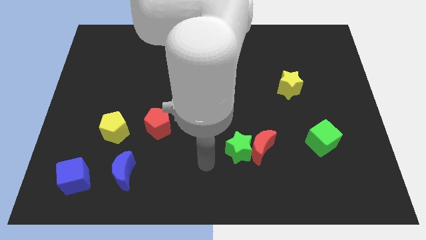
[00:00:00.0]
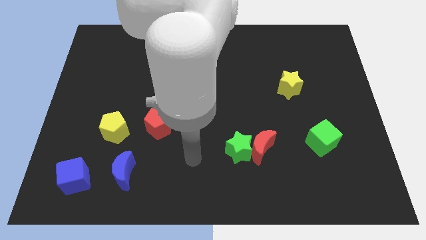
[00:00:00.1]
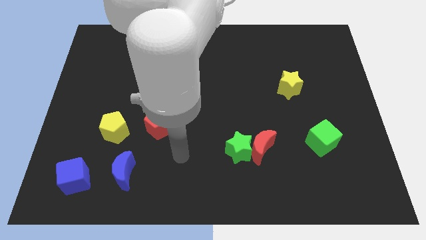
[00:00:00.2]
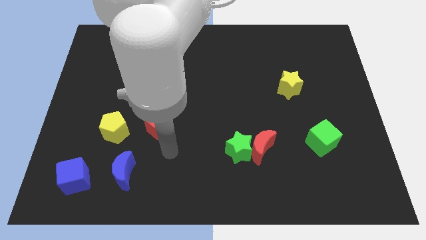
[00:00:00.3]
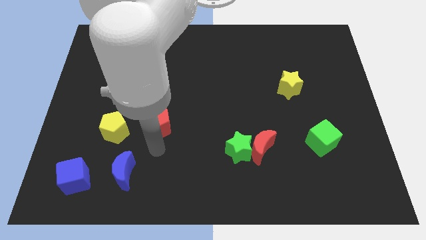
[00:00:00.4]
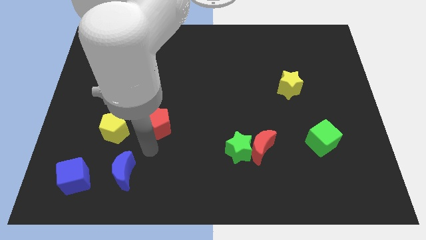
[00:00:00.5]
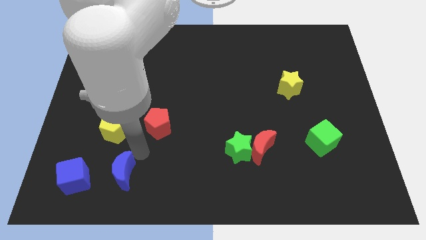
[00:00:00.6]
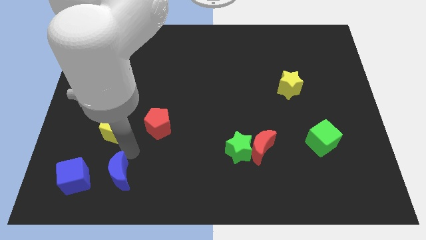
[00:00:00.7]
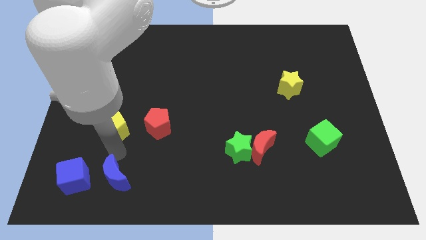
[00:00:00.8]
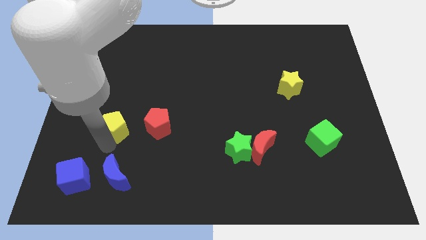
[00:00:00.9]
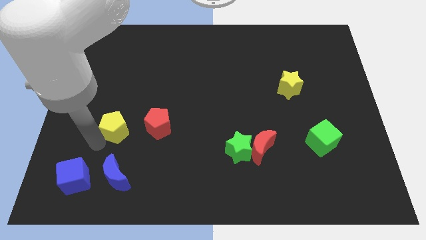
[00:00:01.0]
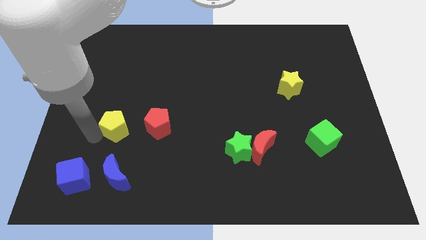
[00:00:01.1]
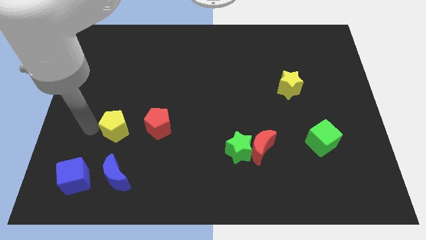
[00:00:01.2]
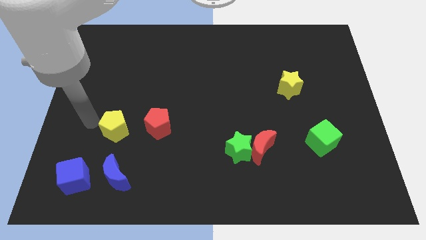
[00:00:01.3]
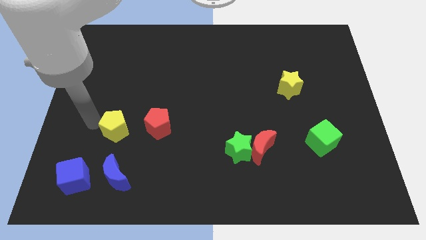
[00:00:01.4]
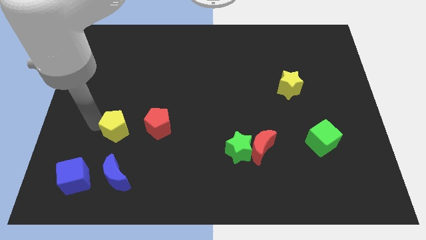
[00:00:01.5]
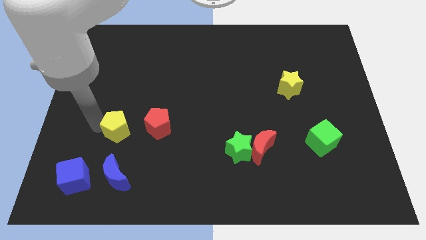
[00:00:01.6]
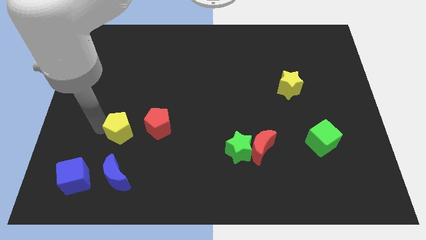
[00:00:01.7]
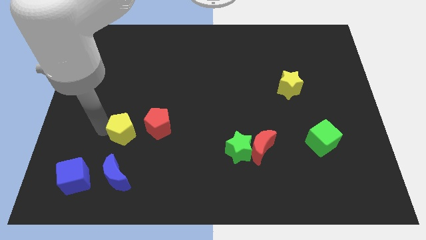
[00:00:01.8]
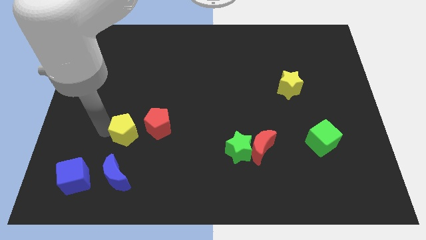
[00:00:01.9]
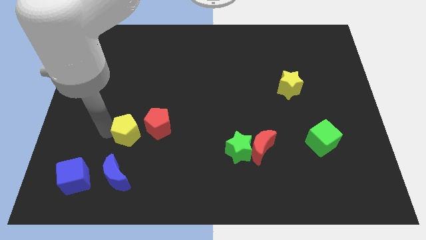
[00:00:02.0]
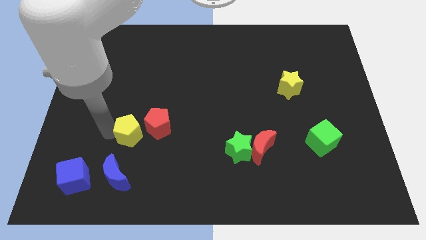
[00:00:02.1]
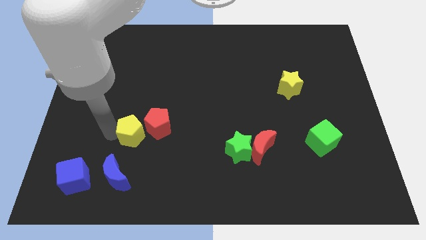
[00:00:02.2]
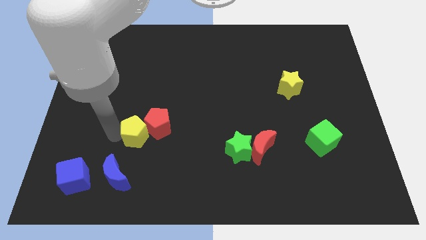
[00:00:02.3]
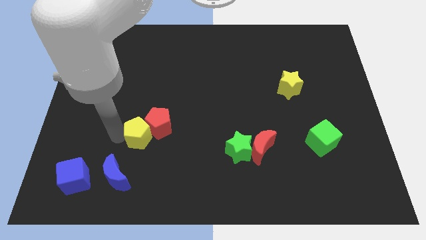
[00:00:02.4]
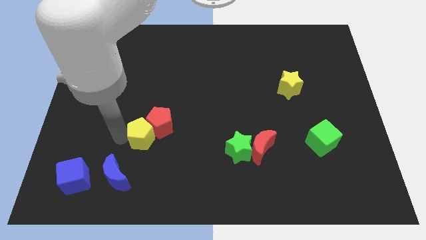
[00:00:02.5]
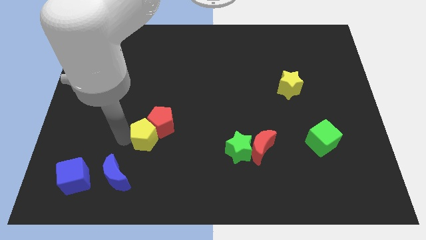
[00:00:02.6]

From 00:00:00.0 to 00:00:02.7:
slide the yellow pentagon slightly right

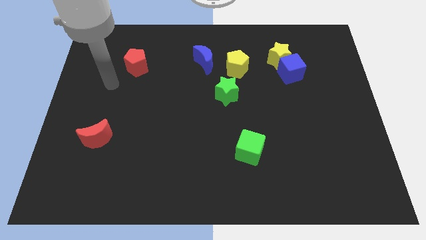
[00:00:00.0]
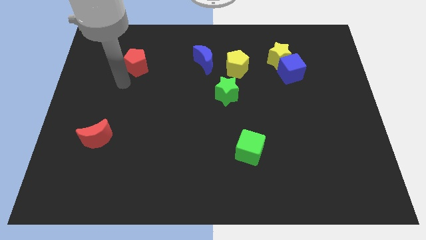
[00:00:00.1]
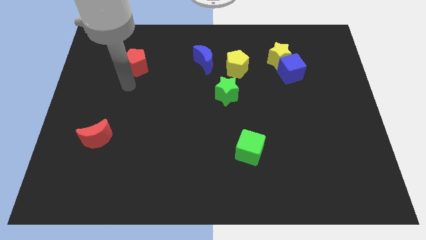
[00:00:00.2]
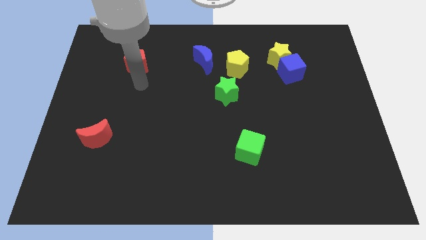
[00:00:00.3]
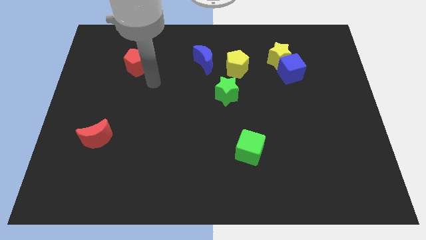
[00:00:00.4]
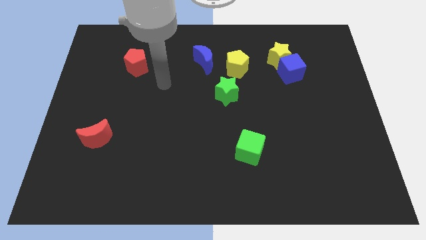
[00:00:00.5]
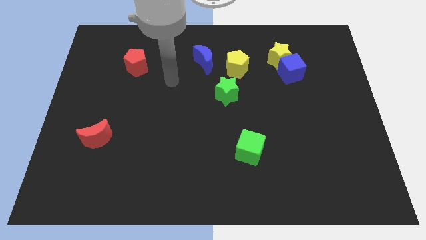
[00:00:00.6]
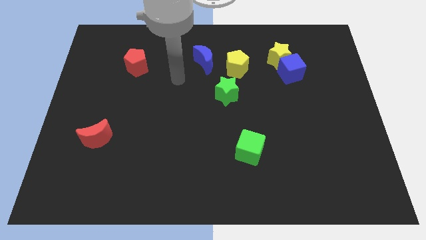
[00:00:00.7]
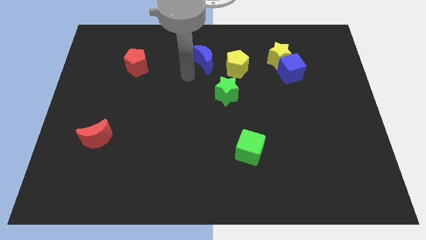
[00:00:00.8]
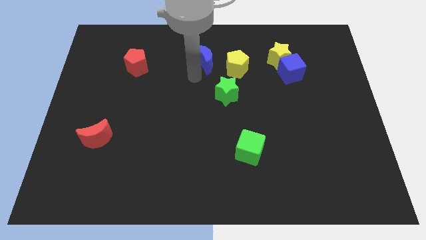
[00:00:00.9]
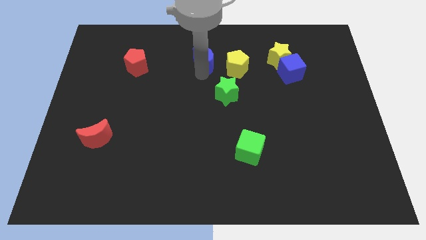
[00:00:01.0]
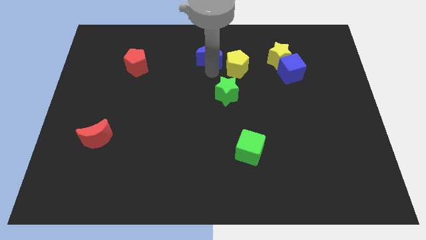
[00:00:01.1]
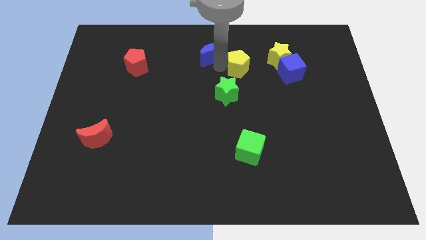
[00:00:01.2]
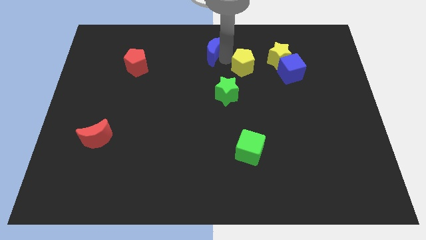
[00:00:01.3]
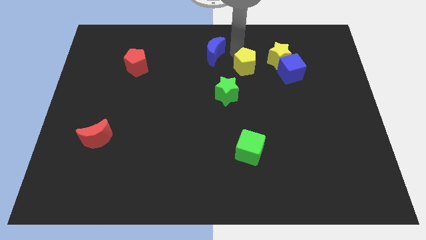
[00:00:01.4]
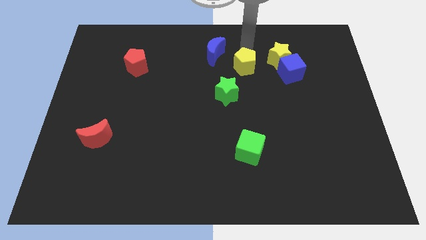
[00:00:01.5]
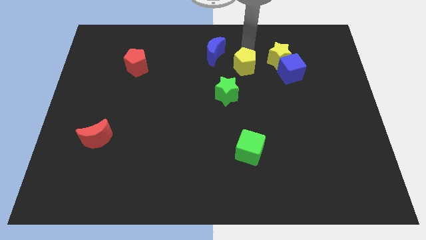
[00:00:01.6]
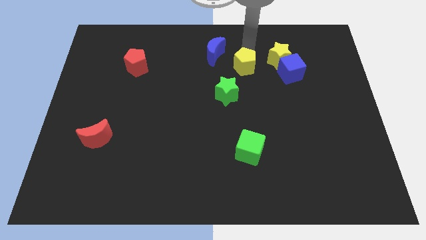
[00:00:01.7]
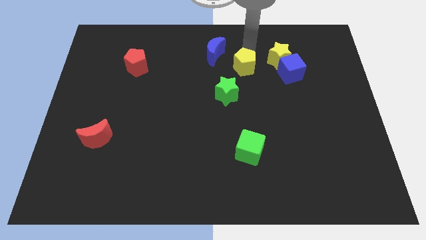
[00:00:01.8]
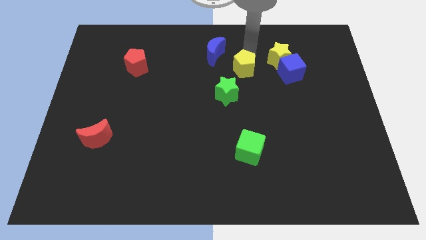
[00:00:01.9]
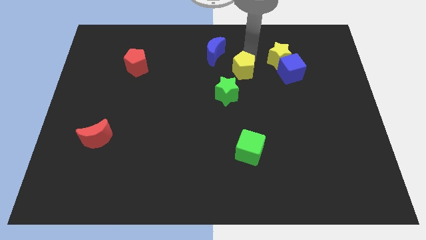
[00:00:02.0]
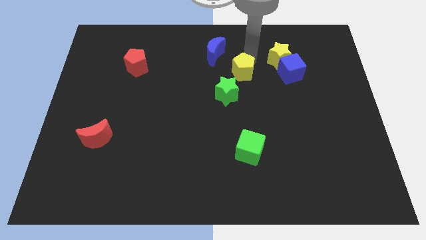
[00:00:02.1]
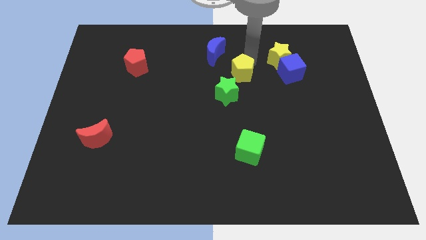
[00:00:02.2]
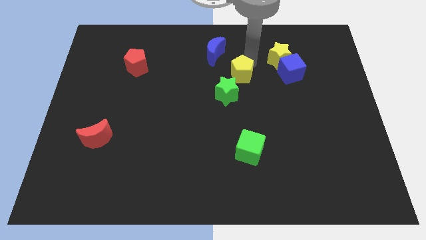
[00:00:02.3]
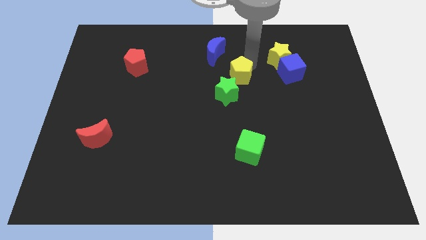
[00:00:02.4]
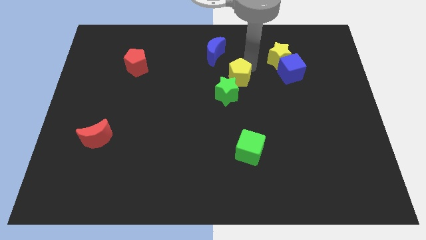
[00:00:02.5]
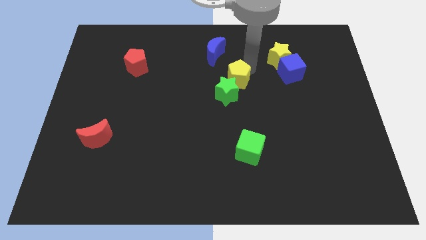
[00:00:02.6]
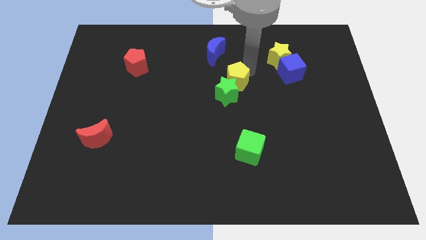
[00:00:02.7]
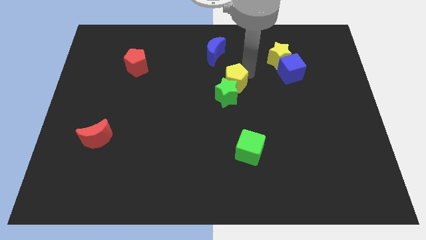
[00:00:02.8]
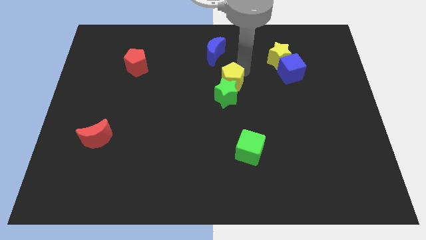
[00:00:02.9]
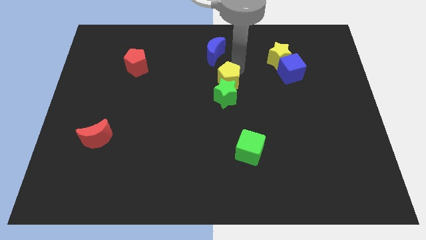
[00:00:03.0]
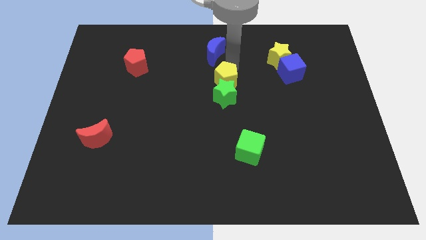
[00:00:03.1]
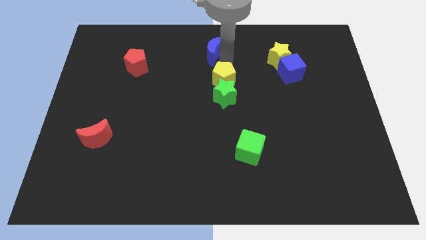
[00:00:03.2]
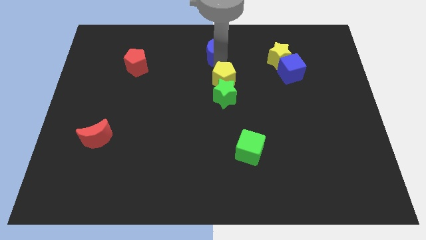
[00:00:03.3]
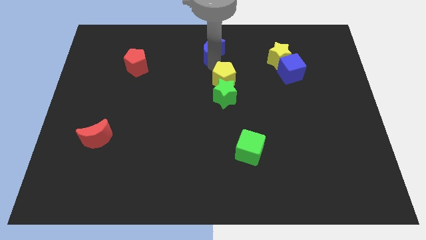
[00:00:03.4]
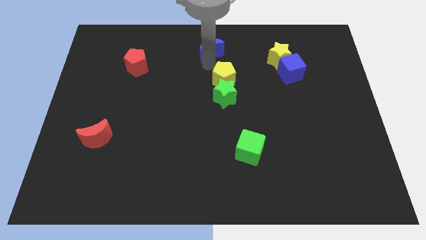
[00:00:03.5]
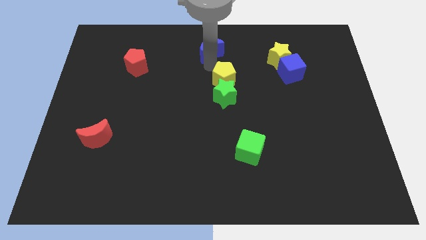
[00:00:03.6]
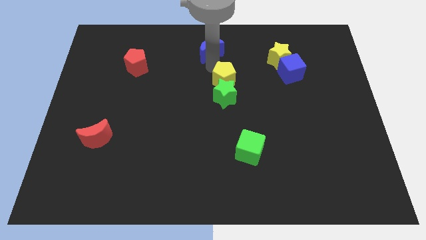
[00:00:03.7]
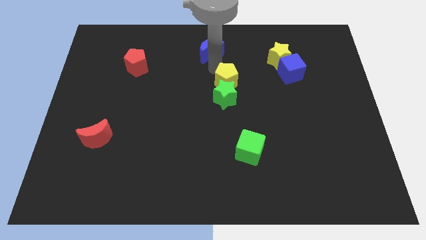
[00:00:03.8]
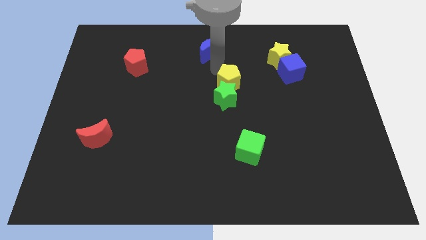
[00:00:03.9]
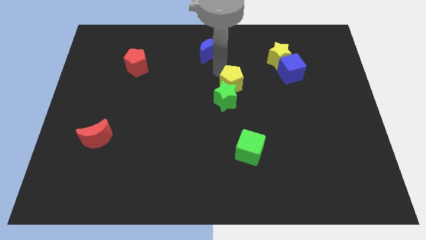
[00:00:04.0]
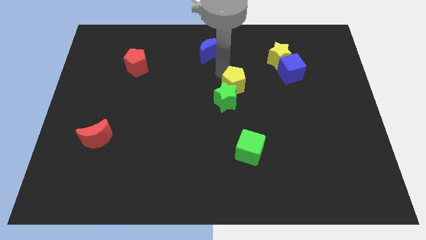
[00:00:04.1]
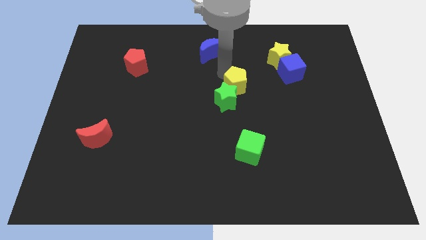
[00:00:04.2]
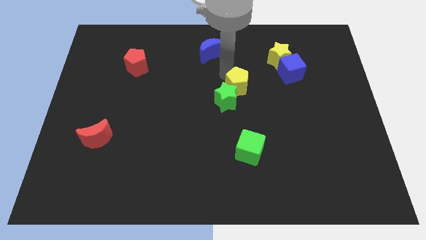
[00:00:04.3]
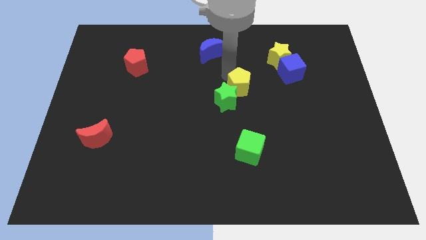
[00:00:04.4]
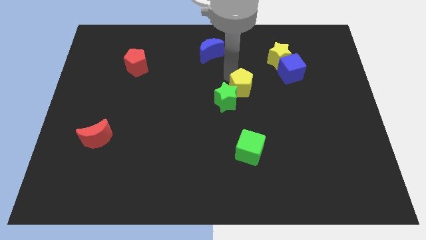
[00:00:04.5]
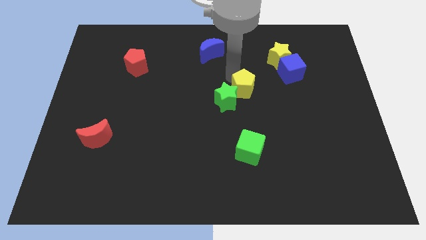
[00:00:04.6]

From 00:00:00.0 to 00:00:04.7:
move the yellow pentagon somewhat downwards

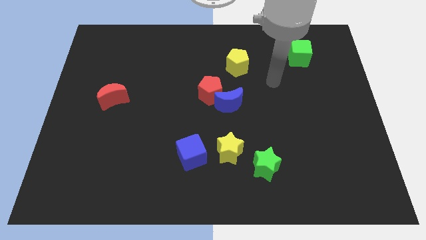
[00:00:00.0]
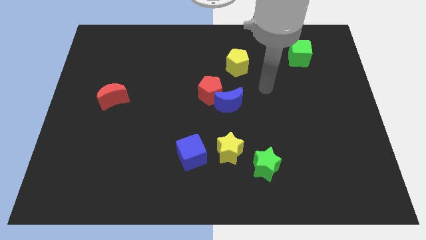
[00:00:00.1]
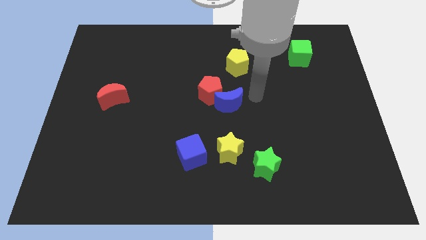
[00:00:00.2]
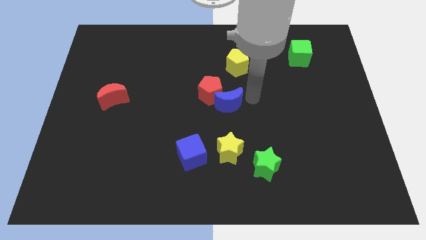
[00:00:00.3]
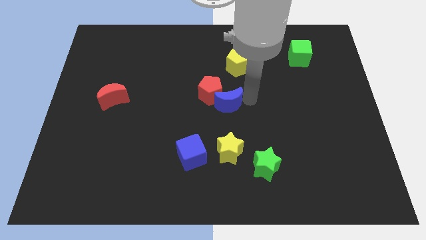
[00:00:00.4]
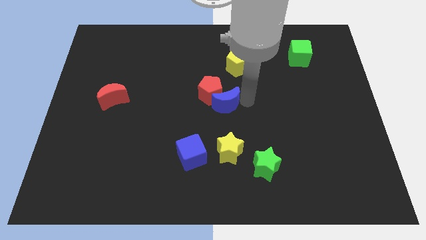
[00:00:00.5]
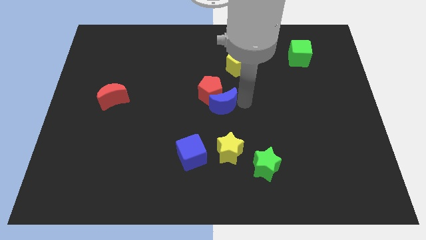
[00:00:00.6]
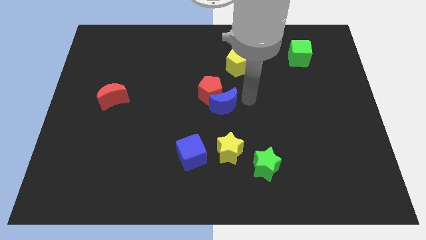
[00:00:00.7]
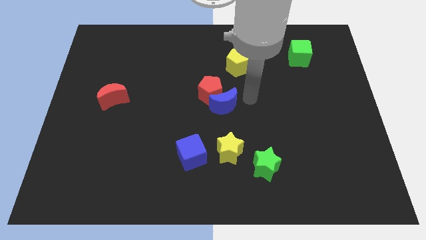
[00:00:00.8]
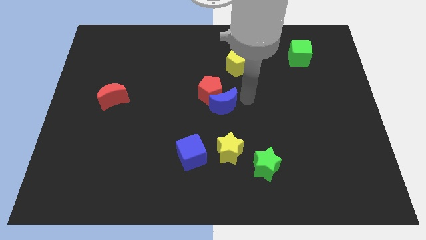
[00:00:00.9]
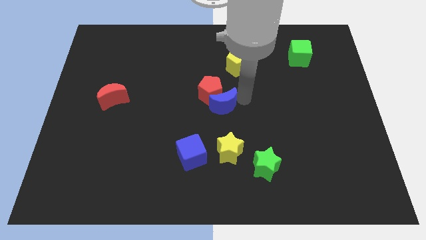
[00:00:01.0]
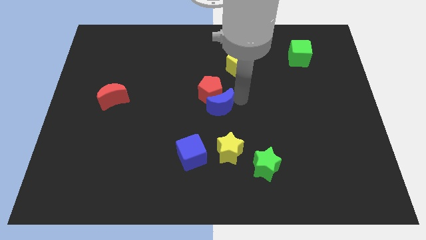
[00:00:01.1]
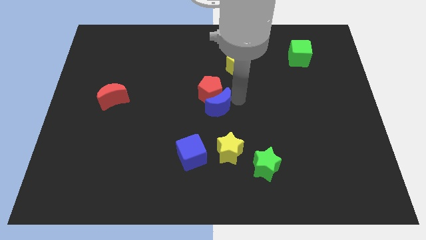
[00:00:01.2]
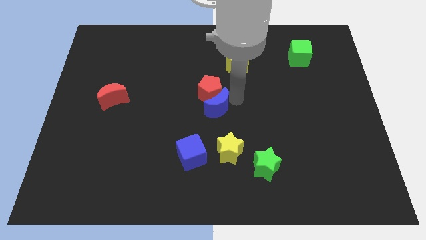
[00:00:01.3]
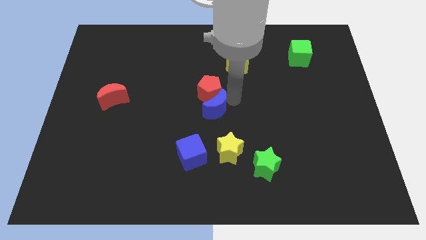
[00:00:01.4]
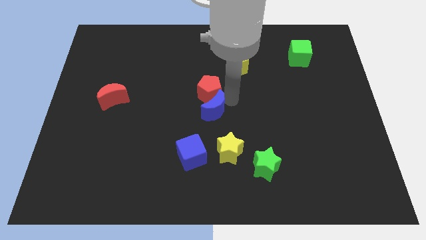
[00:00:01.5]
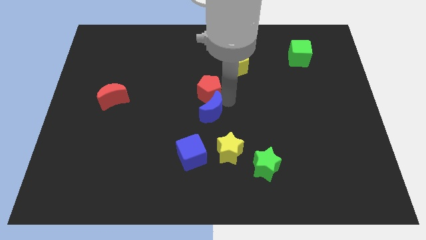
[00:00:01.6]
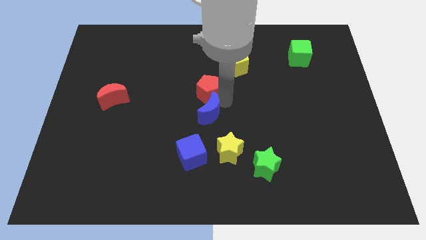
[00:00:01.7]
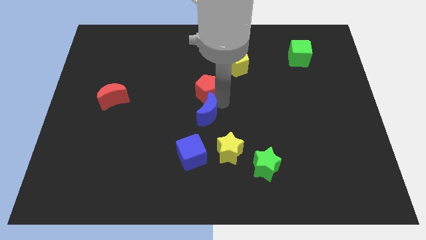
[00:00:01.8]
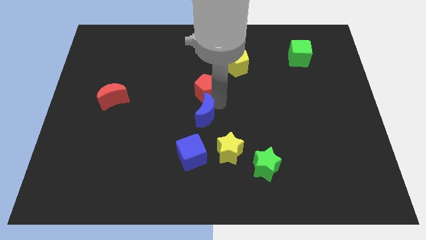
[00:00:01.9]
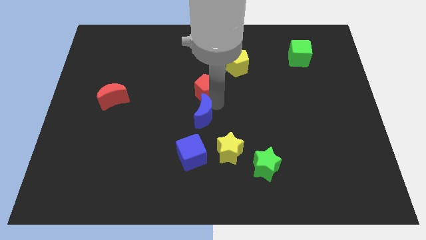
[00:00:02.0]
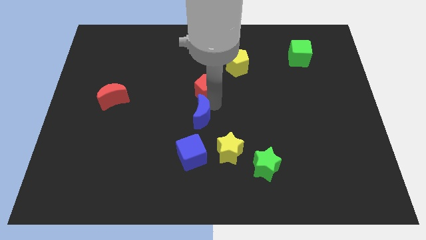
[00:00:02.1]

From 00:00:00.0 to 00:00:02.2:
push the blue moon slightly down and to the left
